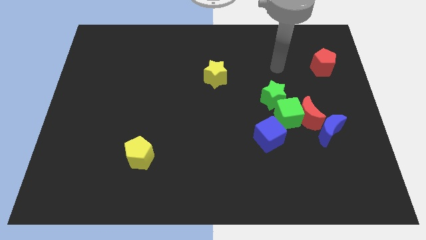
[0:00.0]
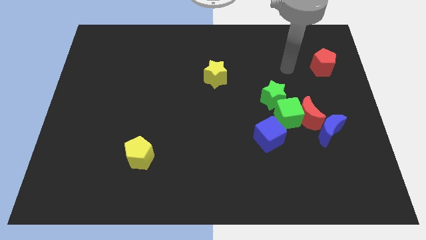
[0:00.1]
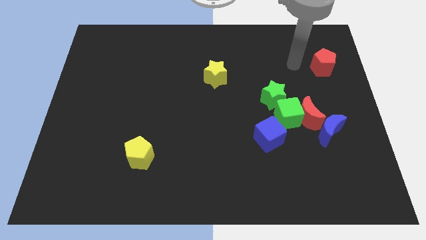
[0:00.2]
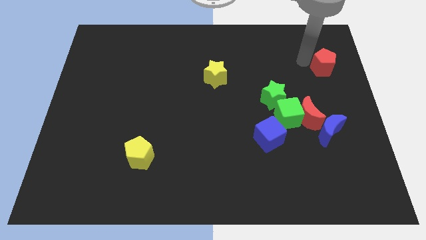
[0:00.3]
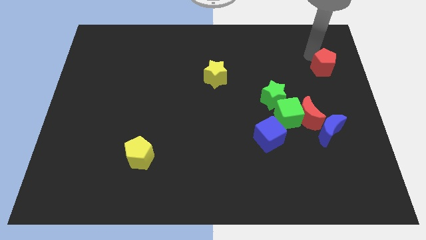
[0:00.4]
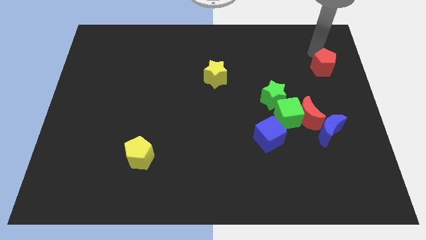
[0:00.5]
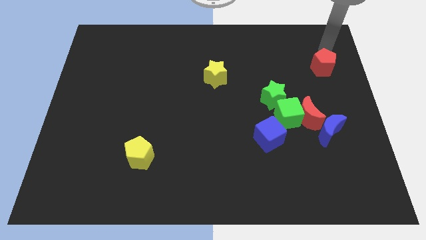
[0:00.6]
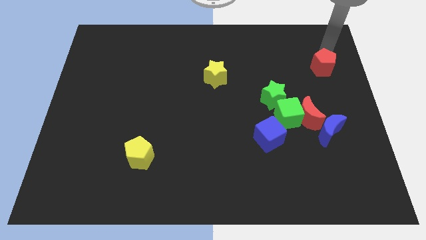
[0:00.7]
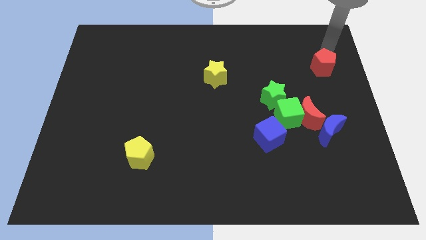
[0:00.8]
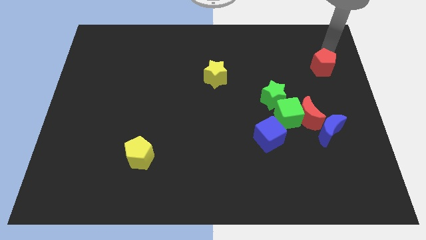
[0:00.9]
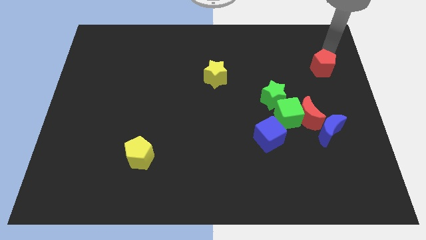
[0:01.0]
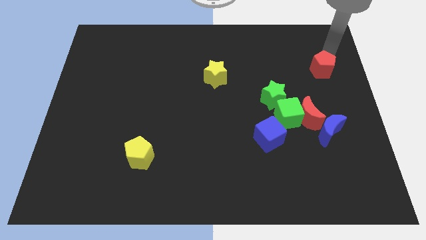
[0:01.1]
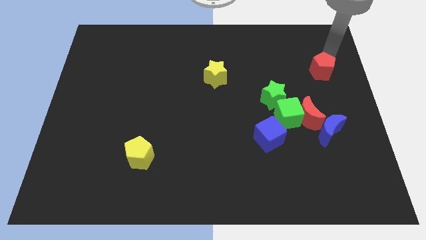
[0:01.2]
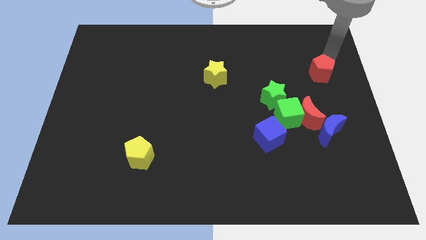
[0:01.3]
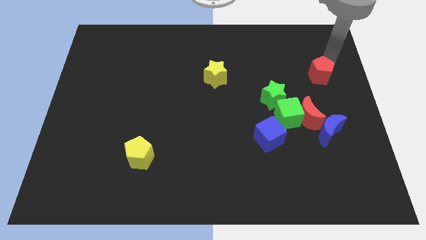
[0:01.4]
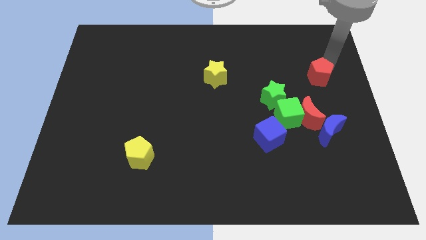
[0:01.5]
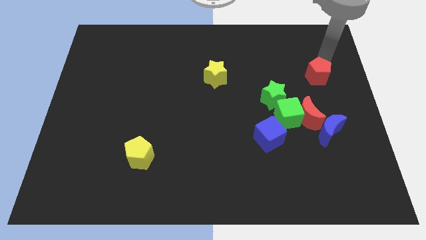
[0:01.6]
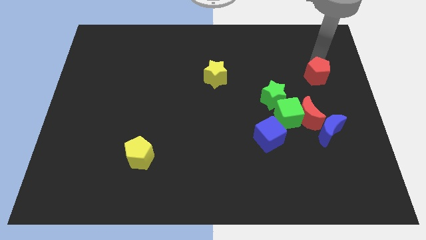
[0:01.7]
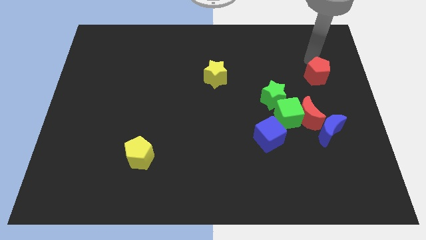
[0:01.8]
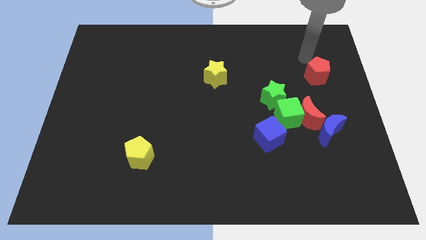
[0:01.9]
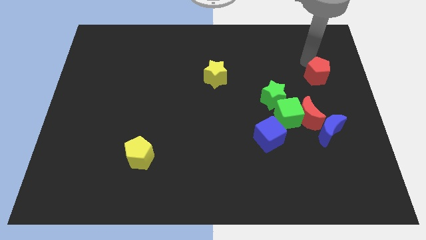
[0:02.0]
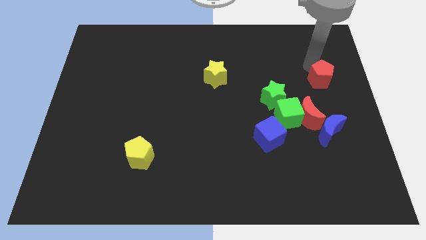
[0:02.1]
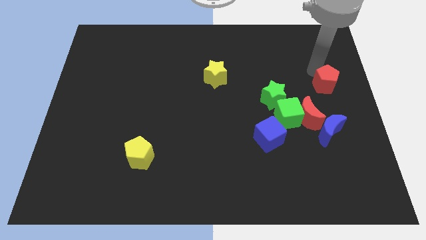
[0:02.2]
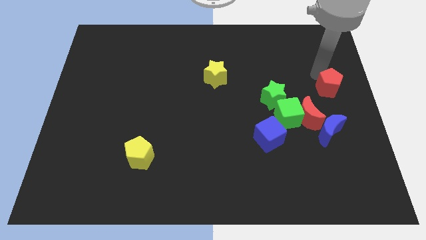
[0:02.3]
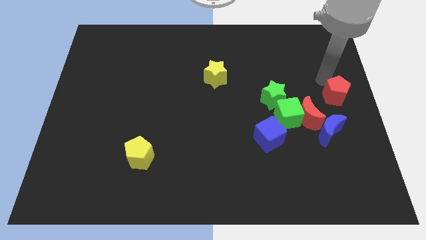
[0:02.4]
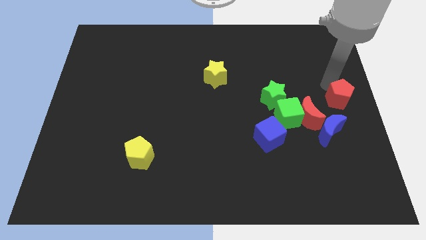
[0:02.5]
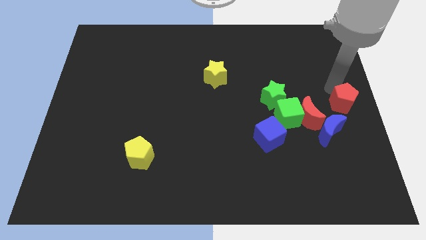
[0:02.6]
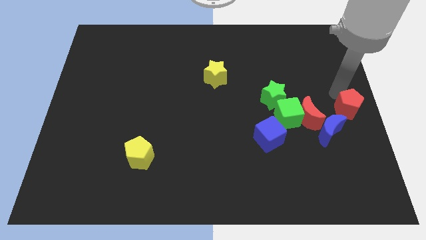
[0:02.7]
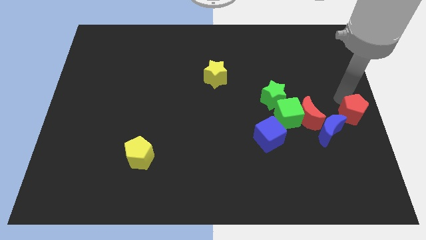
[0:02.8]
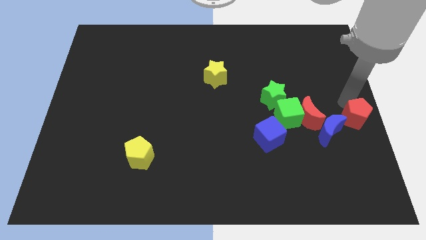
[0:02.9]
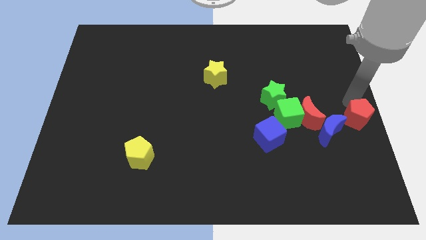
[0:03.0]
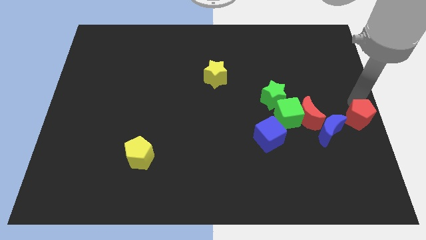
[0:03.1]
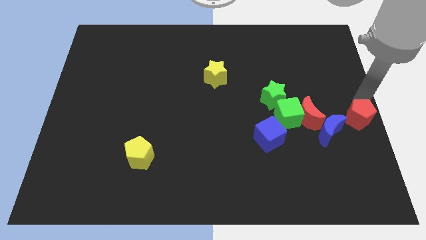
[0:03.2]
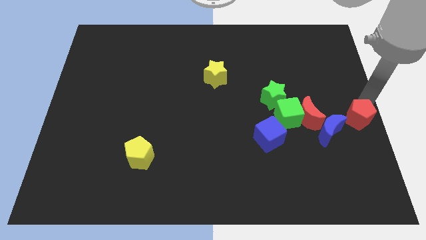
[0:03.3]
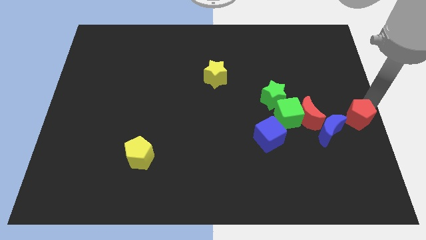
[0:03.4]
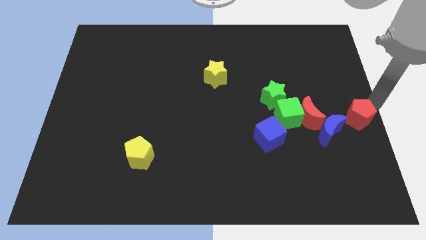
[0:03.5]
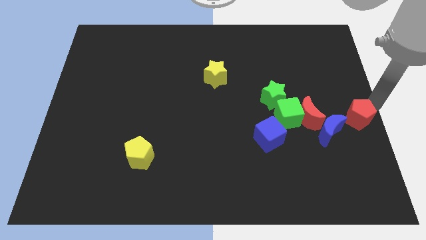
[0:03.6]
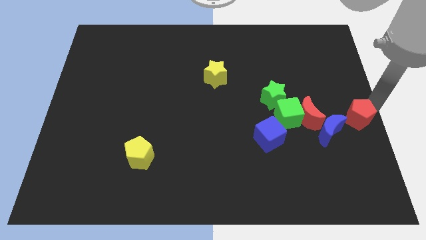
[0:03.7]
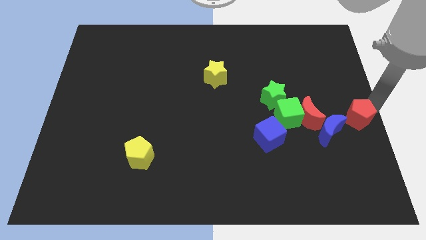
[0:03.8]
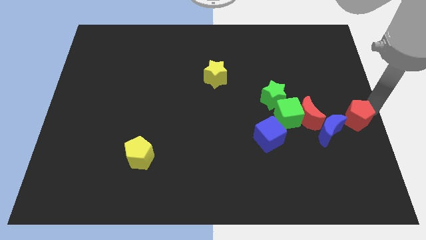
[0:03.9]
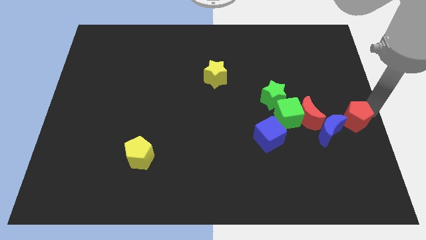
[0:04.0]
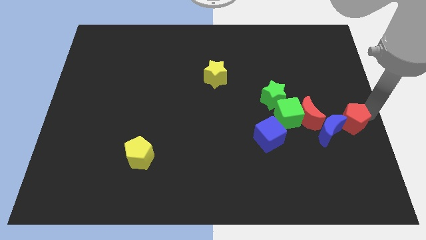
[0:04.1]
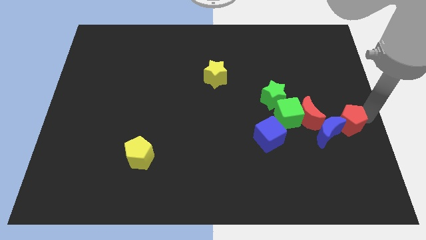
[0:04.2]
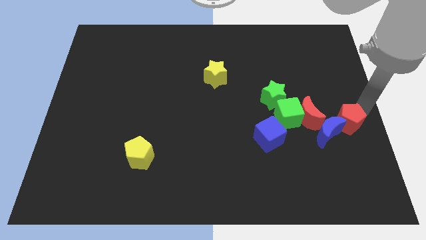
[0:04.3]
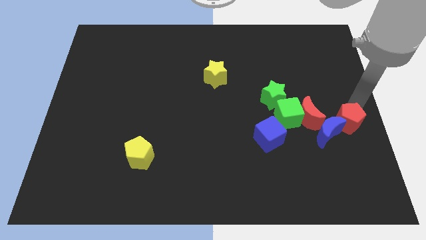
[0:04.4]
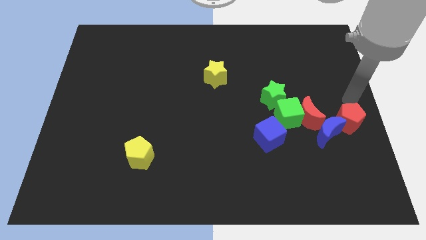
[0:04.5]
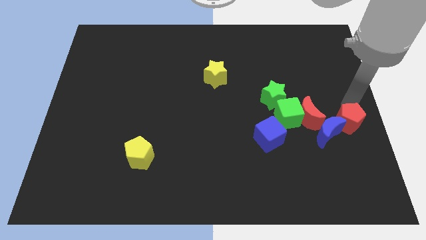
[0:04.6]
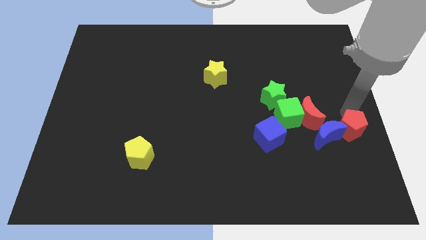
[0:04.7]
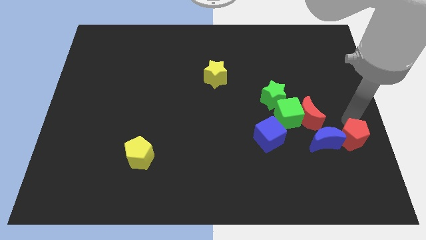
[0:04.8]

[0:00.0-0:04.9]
push the red pentagon down

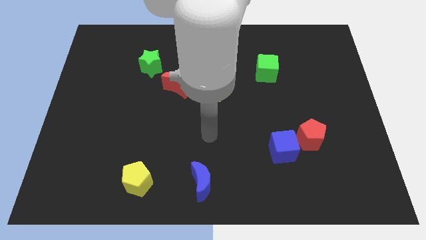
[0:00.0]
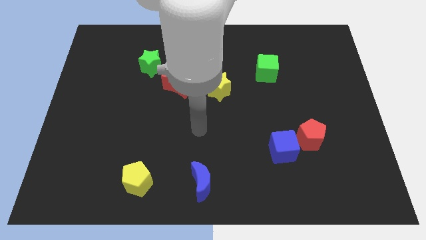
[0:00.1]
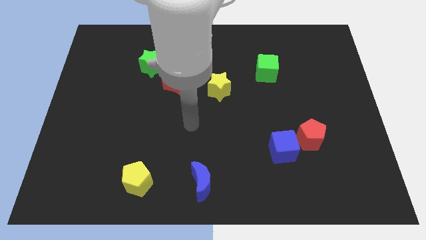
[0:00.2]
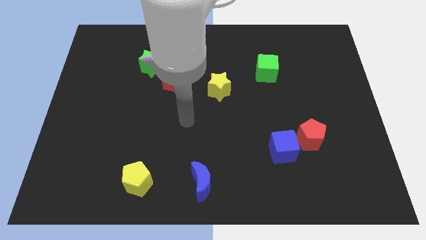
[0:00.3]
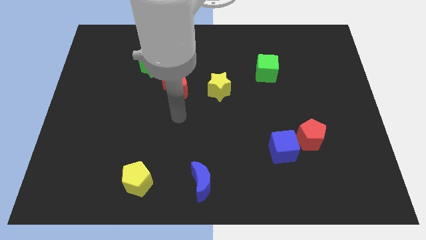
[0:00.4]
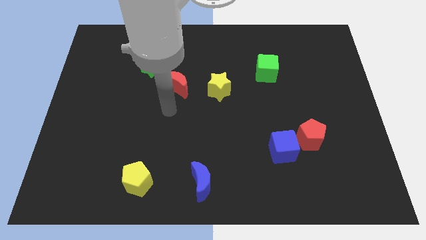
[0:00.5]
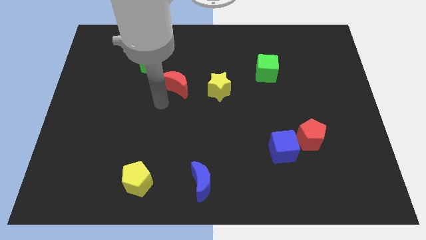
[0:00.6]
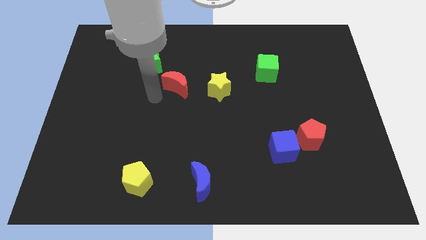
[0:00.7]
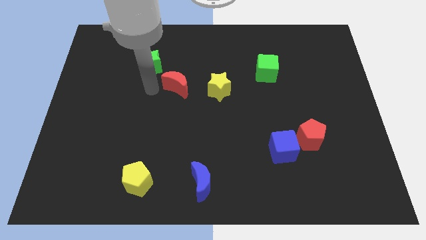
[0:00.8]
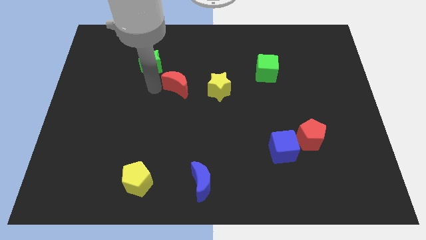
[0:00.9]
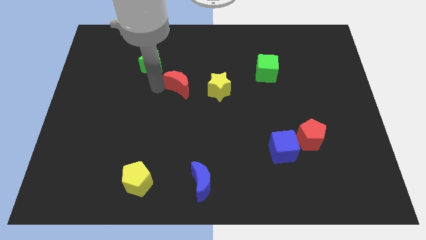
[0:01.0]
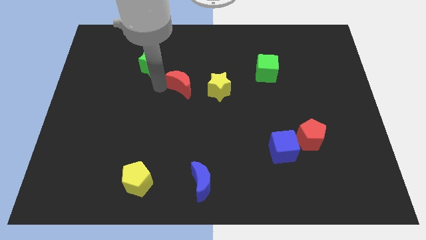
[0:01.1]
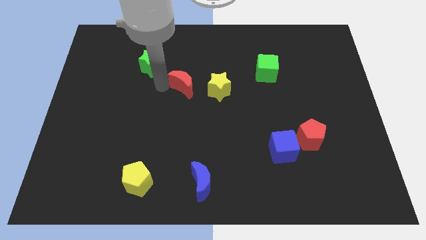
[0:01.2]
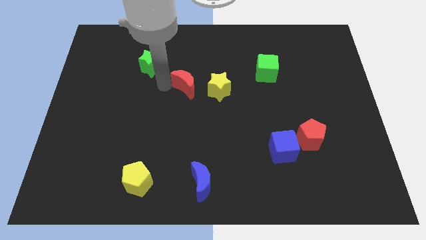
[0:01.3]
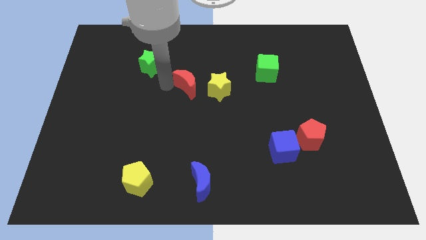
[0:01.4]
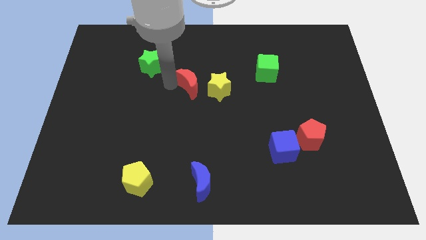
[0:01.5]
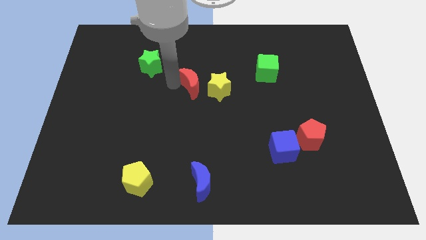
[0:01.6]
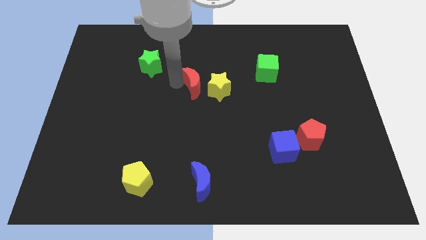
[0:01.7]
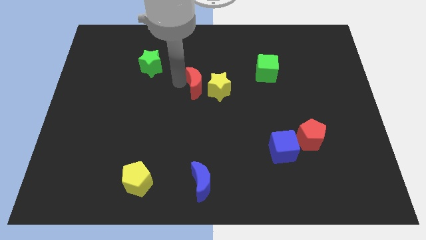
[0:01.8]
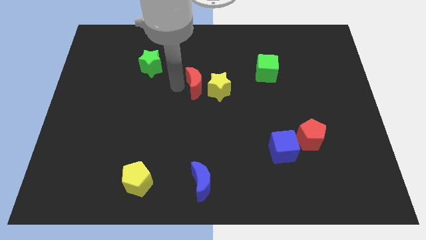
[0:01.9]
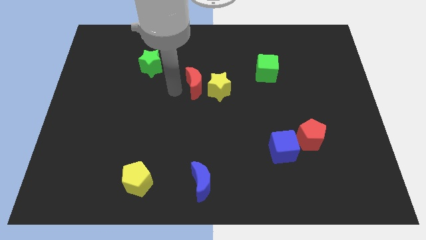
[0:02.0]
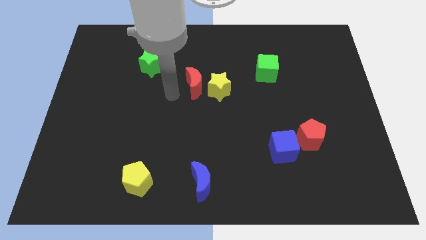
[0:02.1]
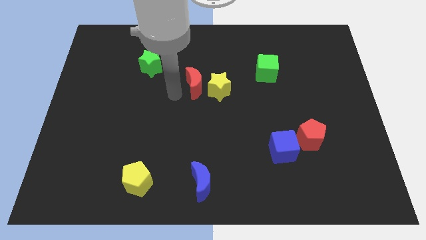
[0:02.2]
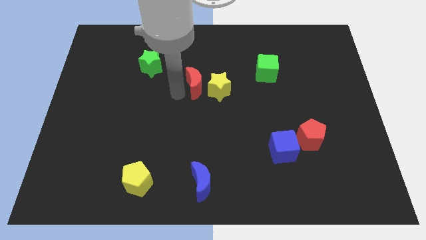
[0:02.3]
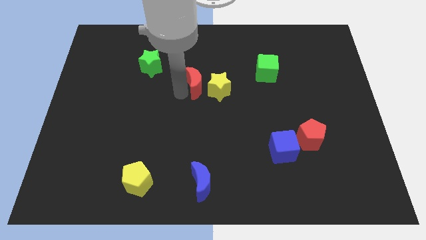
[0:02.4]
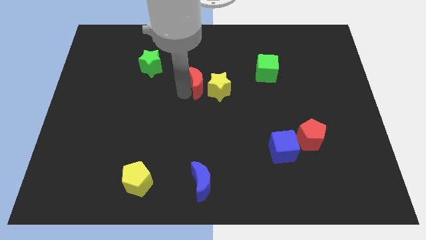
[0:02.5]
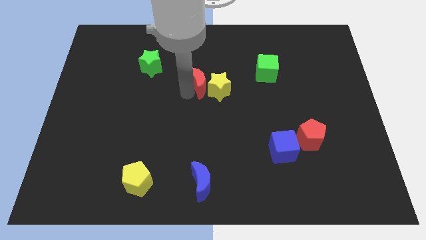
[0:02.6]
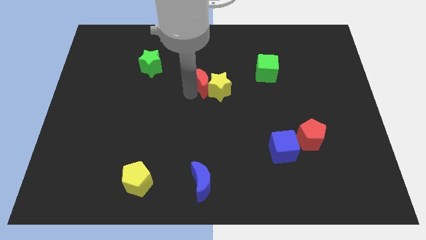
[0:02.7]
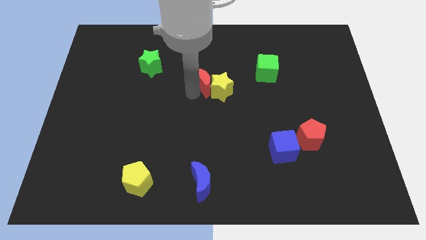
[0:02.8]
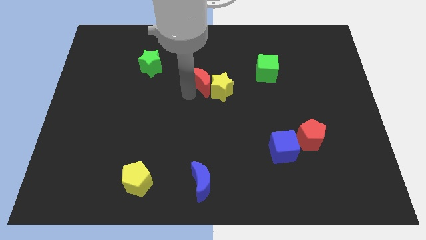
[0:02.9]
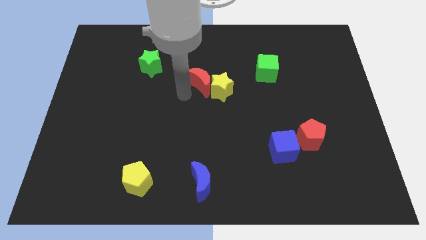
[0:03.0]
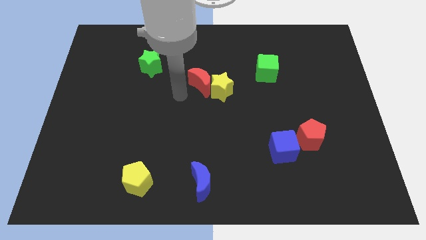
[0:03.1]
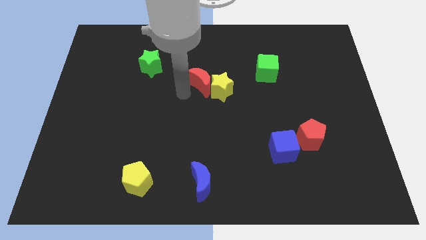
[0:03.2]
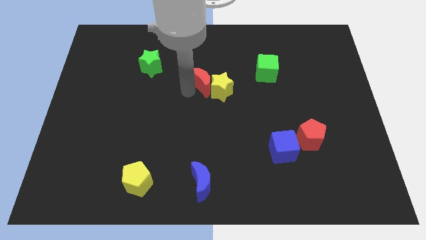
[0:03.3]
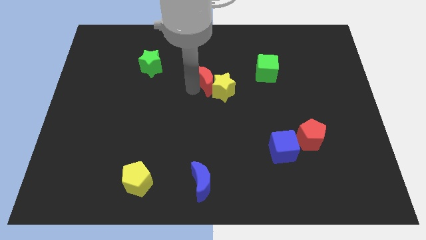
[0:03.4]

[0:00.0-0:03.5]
push the red moon right slightly
